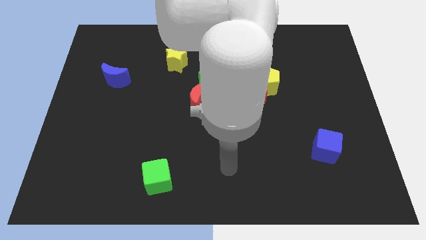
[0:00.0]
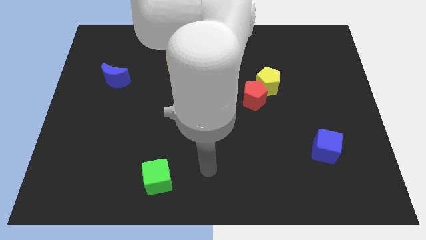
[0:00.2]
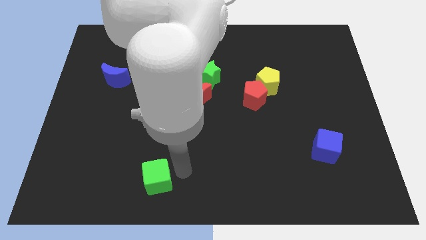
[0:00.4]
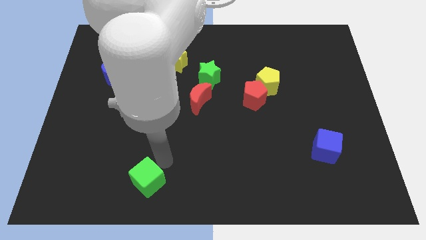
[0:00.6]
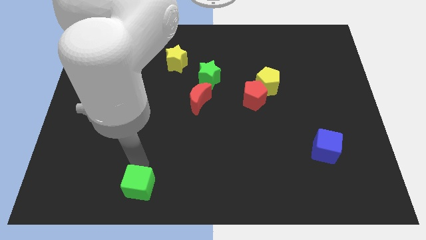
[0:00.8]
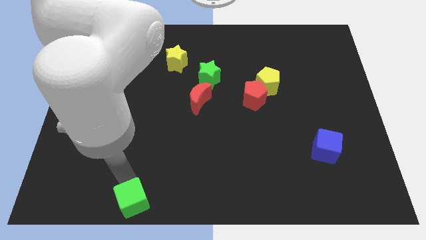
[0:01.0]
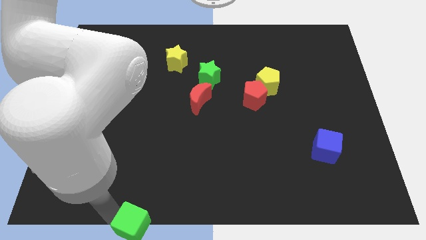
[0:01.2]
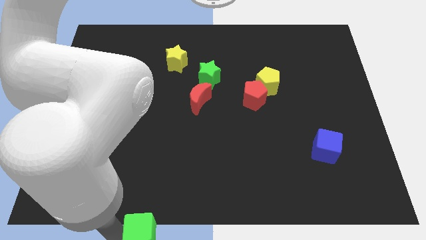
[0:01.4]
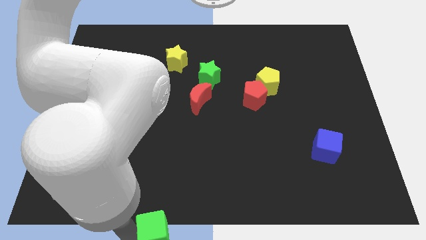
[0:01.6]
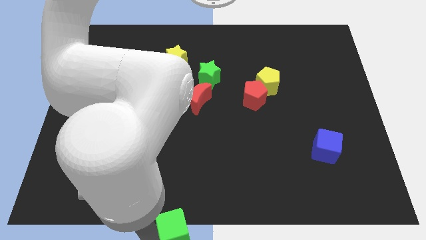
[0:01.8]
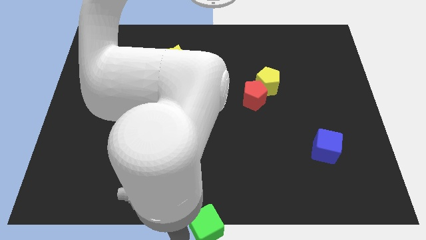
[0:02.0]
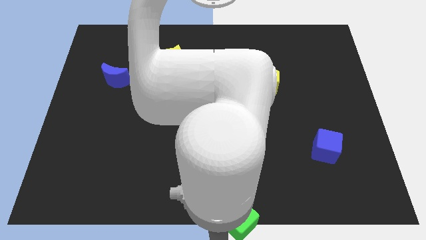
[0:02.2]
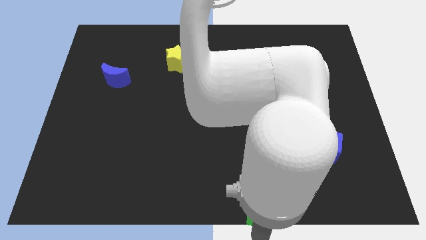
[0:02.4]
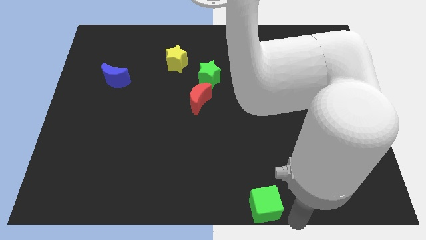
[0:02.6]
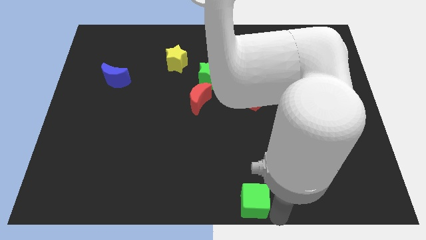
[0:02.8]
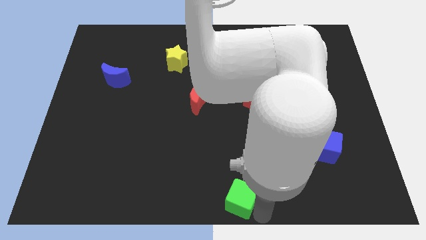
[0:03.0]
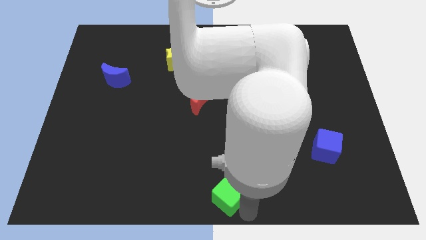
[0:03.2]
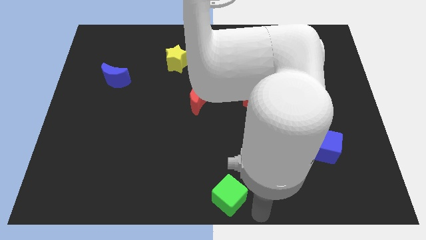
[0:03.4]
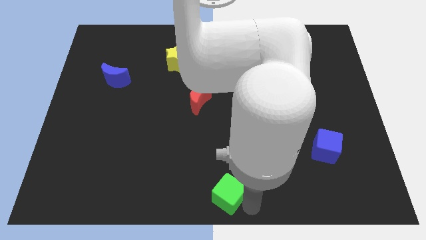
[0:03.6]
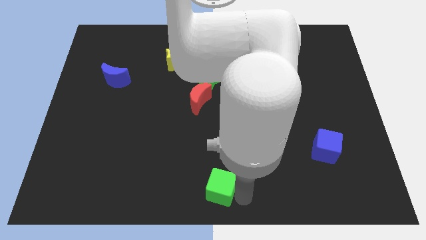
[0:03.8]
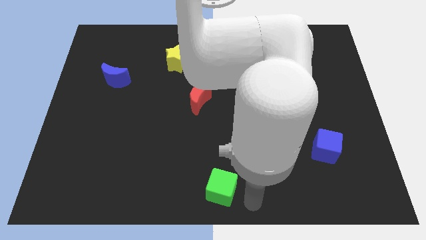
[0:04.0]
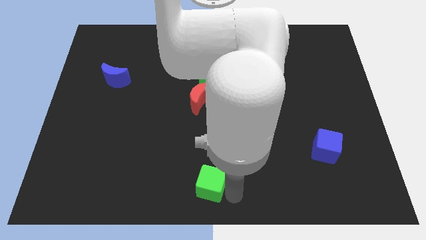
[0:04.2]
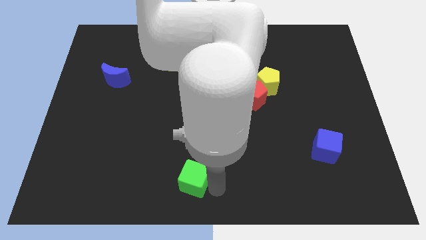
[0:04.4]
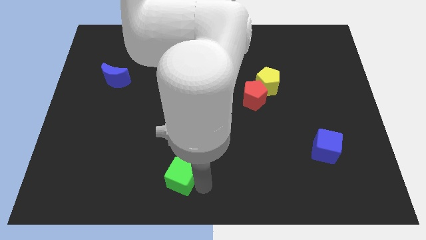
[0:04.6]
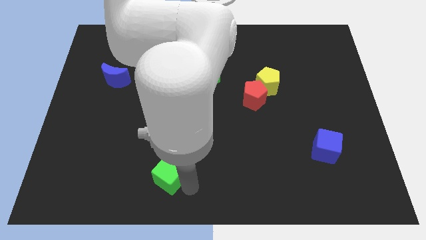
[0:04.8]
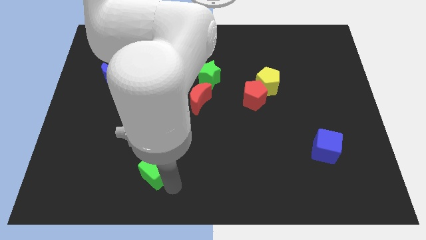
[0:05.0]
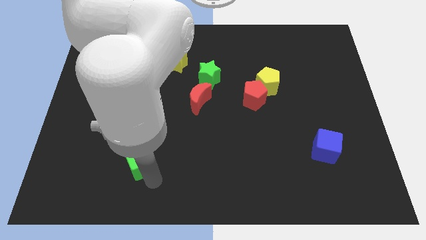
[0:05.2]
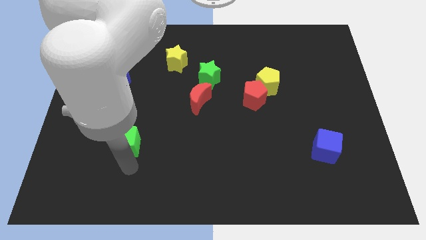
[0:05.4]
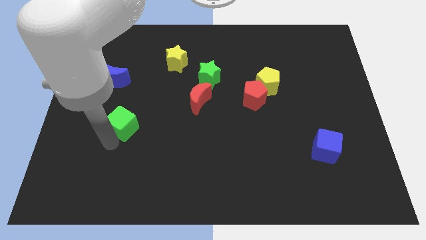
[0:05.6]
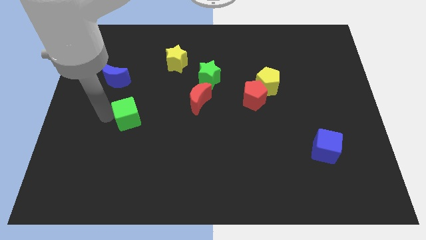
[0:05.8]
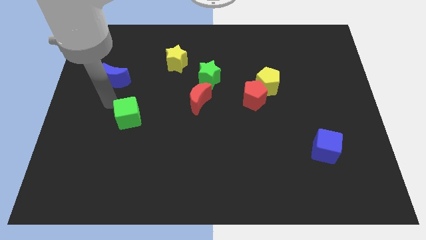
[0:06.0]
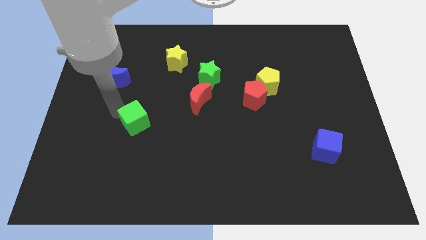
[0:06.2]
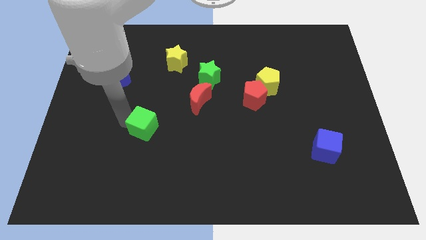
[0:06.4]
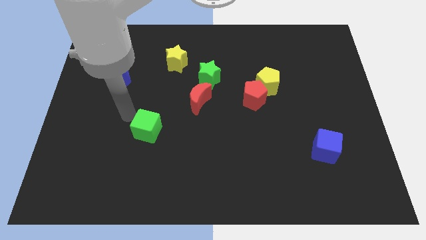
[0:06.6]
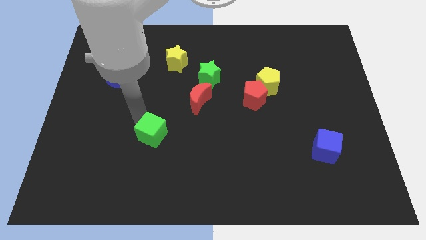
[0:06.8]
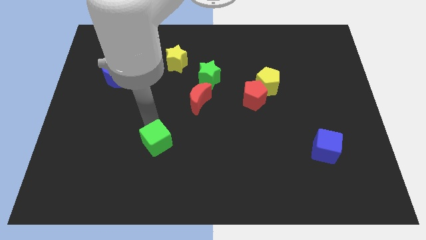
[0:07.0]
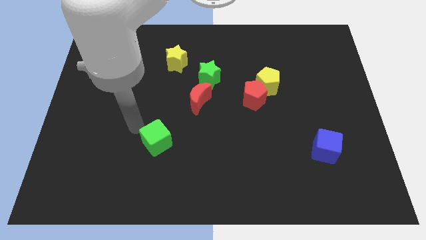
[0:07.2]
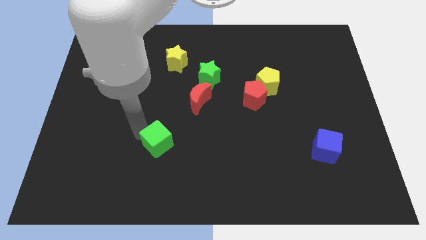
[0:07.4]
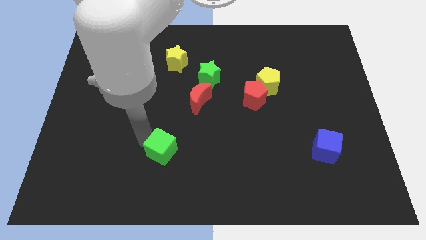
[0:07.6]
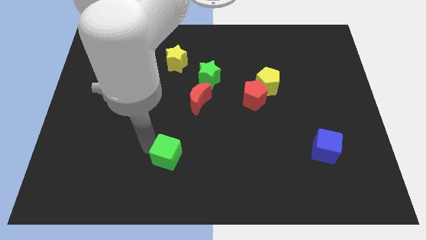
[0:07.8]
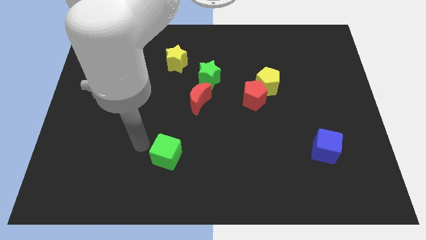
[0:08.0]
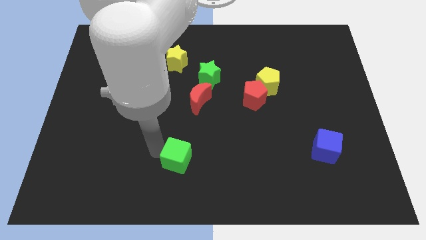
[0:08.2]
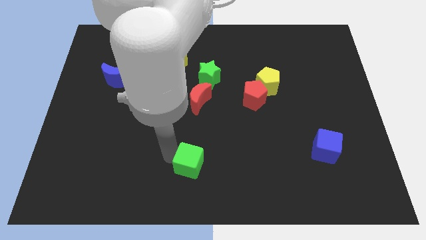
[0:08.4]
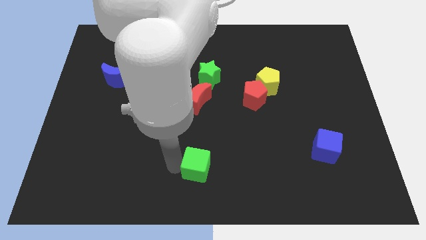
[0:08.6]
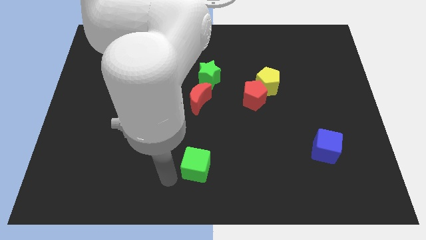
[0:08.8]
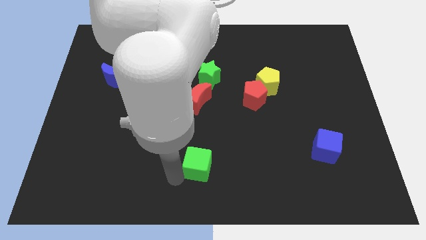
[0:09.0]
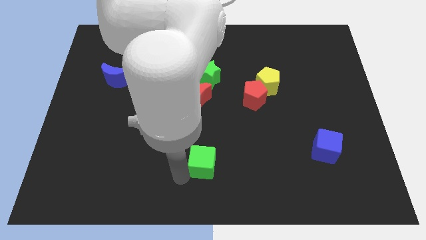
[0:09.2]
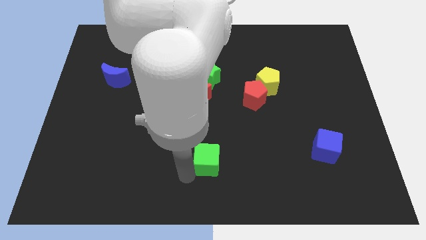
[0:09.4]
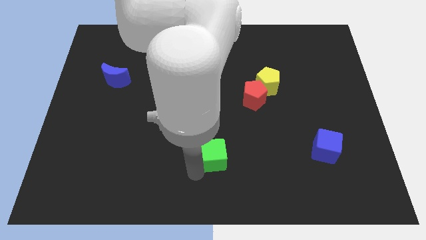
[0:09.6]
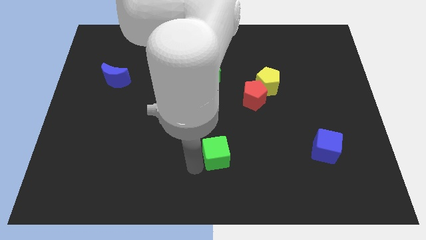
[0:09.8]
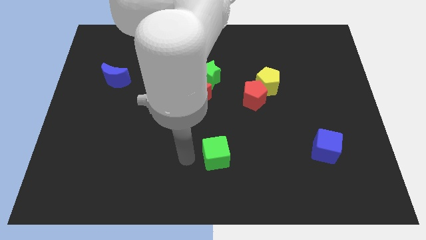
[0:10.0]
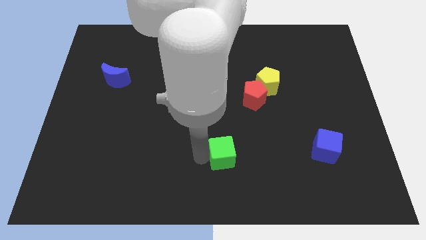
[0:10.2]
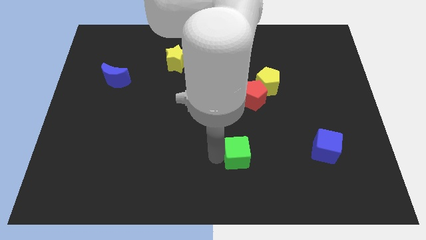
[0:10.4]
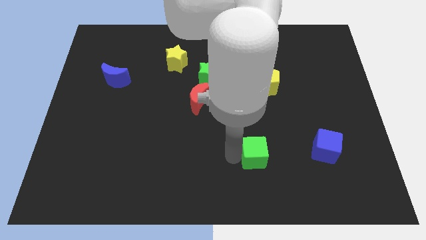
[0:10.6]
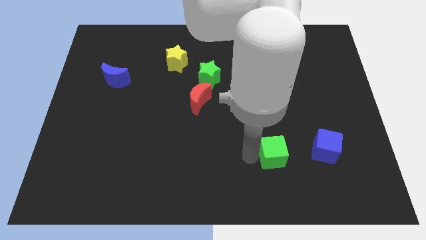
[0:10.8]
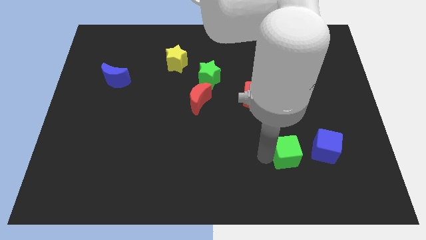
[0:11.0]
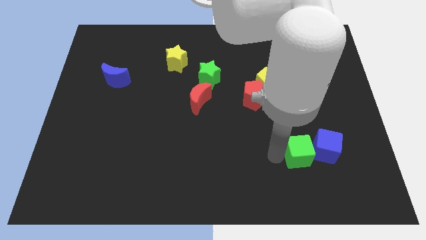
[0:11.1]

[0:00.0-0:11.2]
put the green cube towards the blue cube

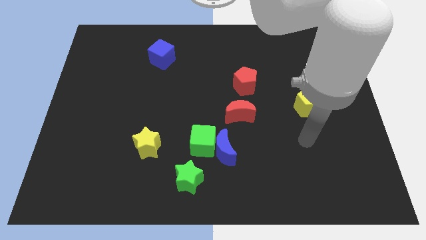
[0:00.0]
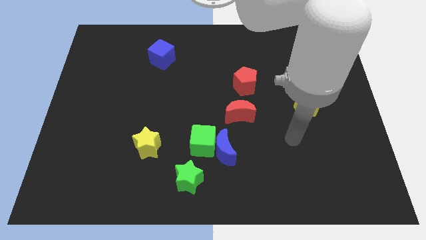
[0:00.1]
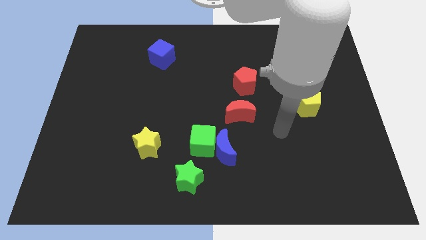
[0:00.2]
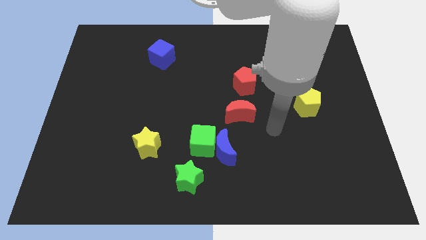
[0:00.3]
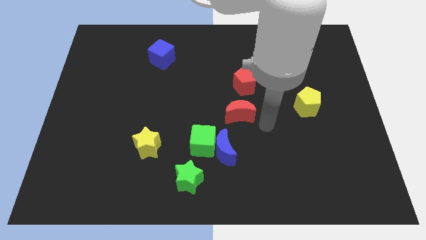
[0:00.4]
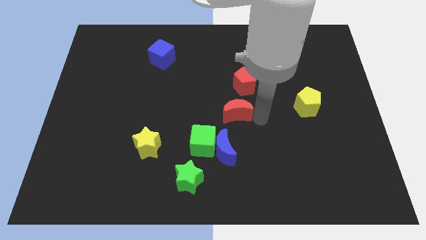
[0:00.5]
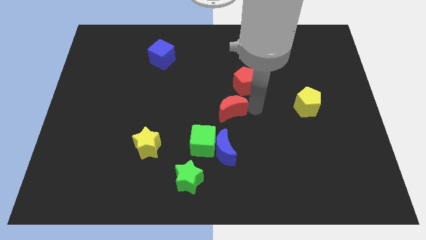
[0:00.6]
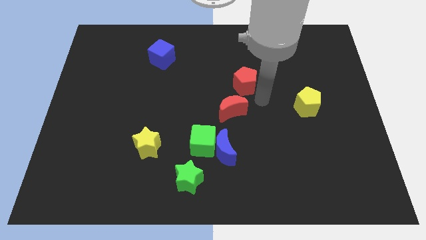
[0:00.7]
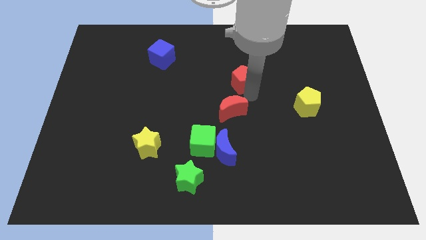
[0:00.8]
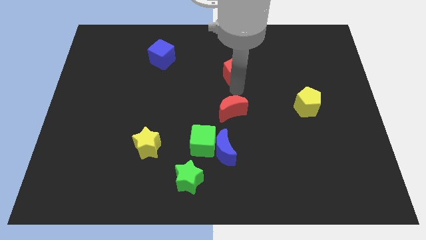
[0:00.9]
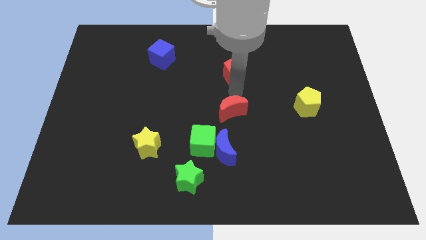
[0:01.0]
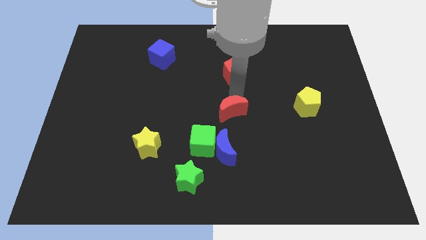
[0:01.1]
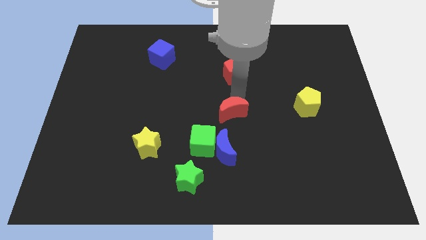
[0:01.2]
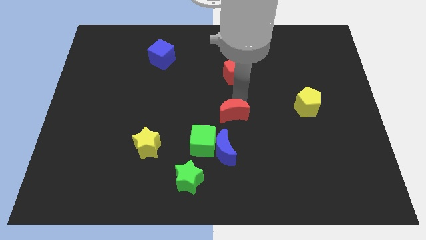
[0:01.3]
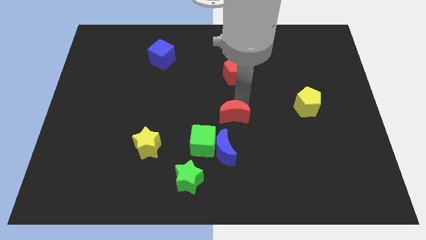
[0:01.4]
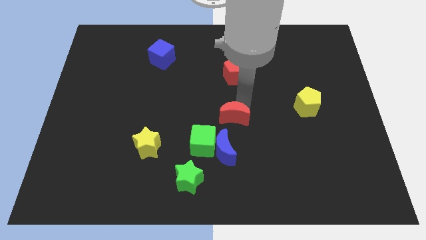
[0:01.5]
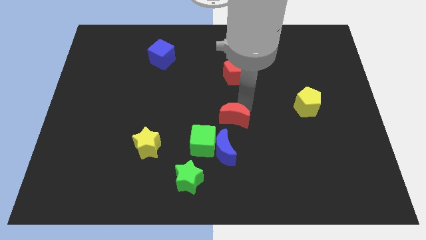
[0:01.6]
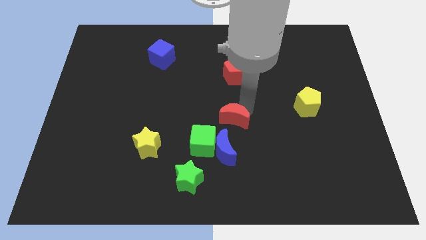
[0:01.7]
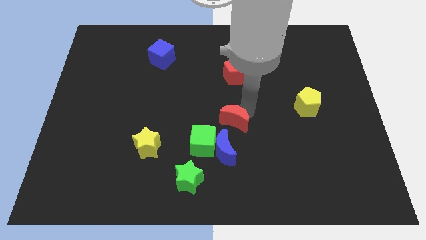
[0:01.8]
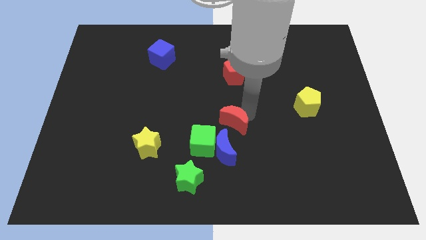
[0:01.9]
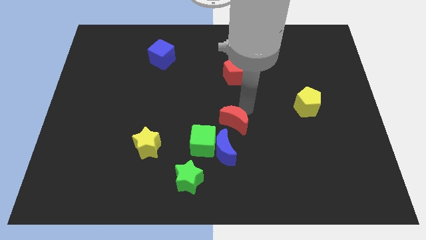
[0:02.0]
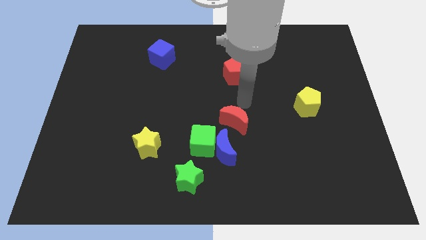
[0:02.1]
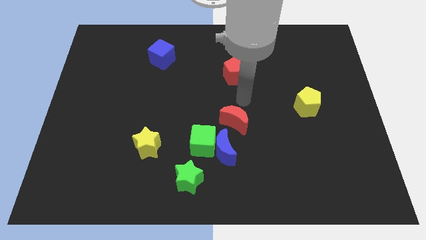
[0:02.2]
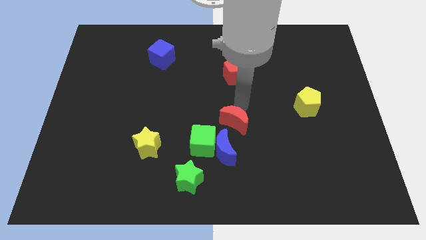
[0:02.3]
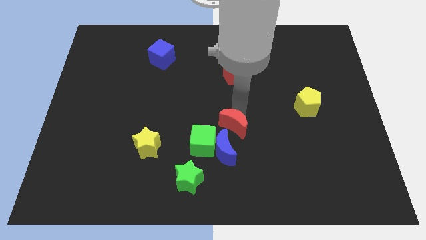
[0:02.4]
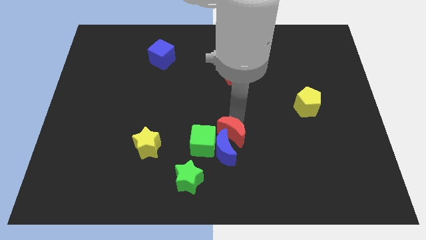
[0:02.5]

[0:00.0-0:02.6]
put the red moon next to the blue moon

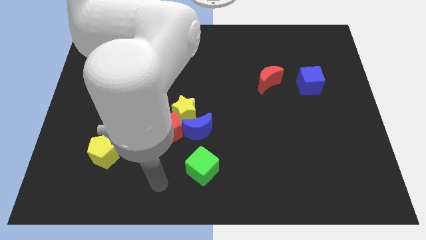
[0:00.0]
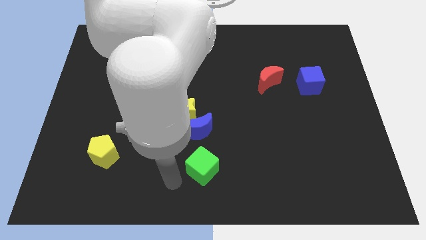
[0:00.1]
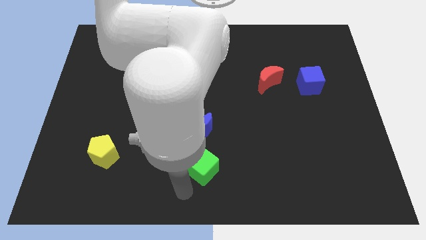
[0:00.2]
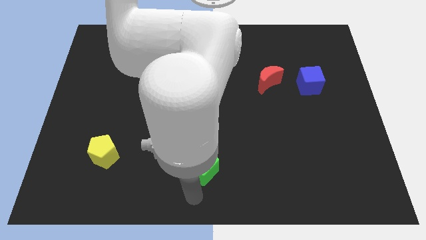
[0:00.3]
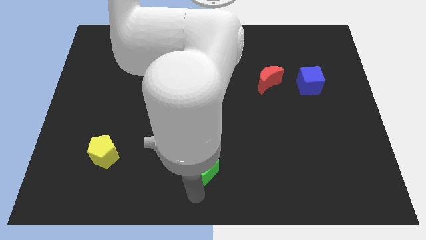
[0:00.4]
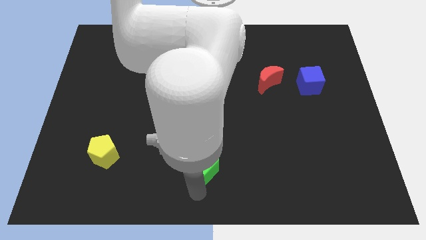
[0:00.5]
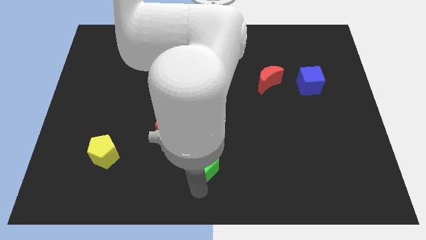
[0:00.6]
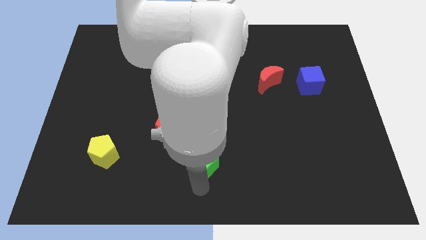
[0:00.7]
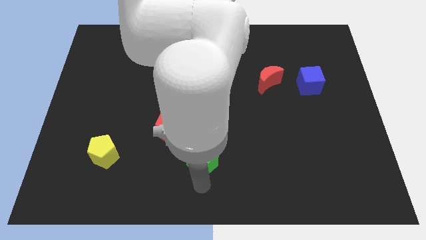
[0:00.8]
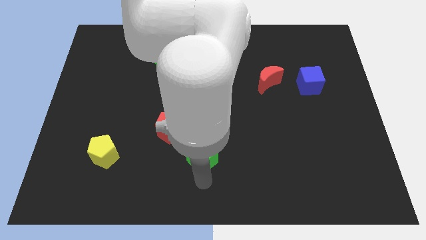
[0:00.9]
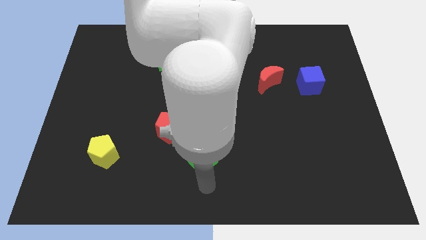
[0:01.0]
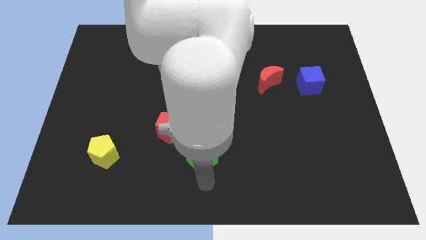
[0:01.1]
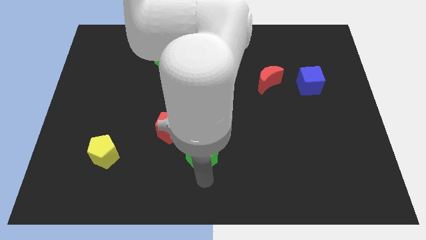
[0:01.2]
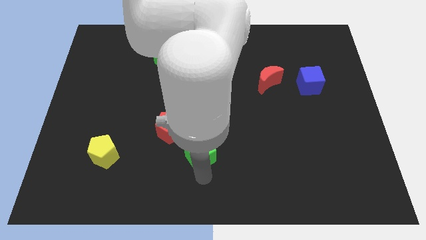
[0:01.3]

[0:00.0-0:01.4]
push the green cube to the blue moon
